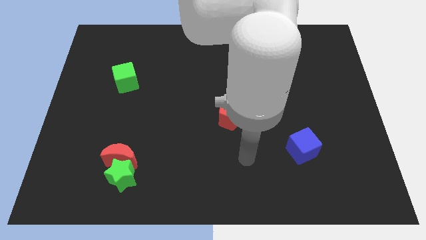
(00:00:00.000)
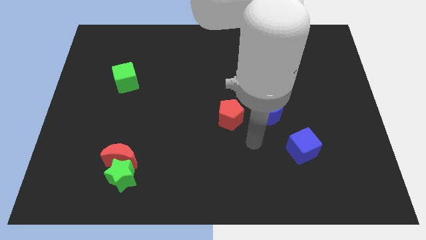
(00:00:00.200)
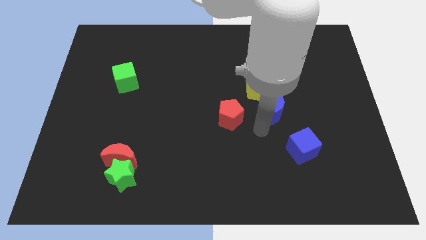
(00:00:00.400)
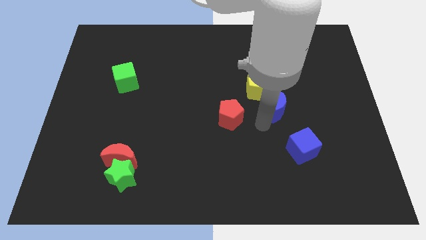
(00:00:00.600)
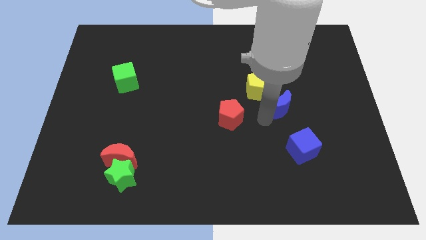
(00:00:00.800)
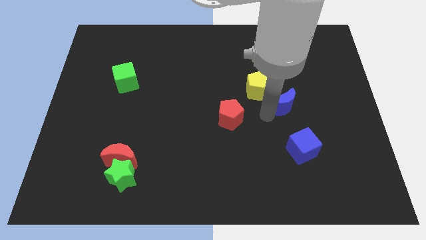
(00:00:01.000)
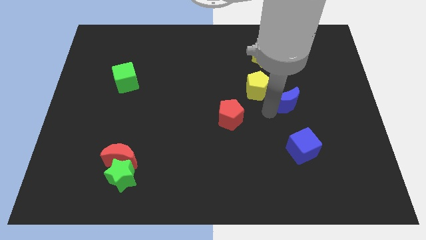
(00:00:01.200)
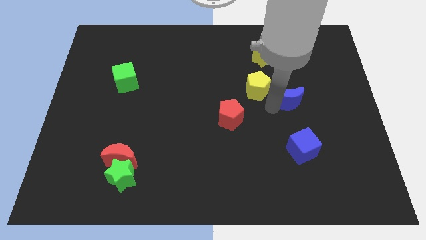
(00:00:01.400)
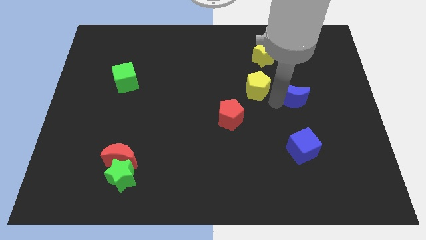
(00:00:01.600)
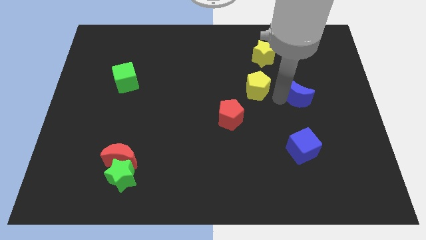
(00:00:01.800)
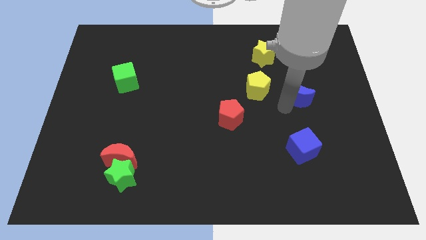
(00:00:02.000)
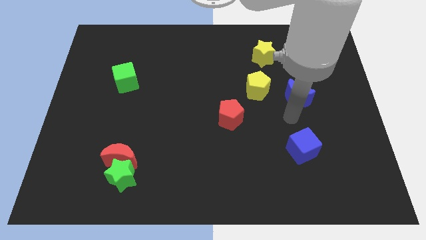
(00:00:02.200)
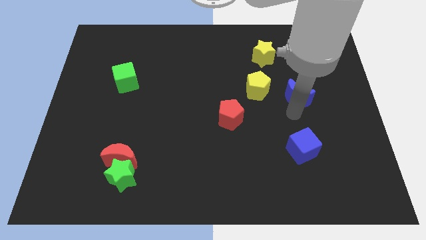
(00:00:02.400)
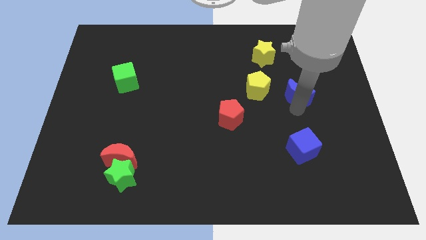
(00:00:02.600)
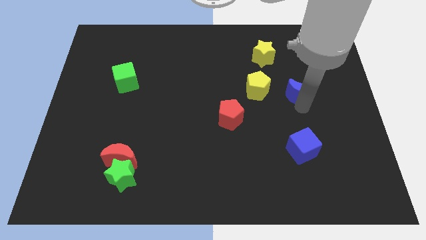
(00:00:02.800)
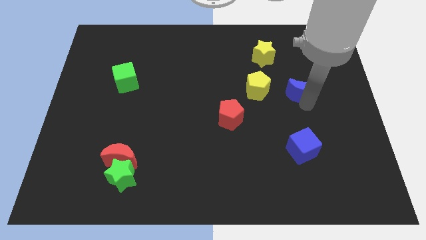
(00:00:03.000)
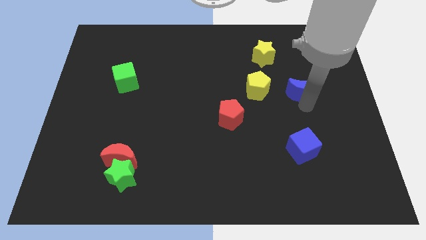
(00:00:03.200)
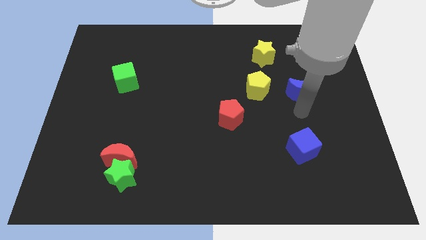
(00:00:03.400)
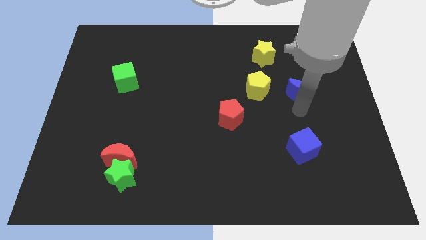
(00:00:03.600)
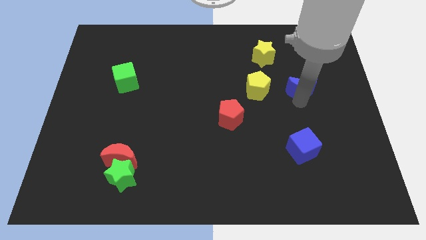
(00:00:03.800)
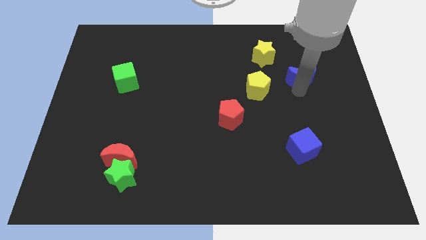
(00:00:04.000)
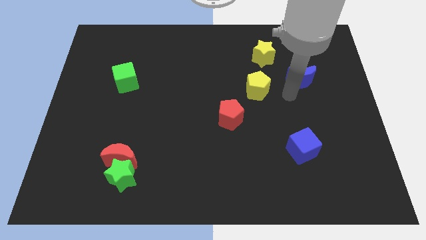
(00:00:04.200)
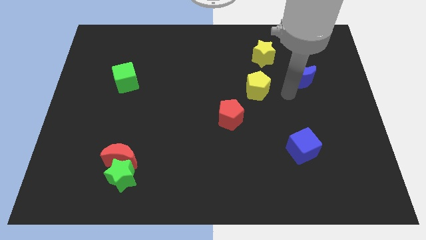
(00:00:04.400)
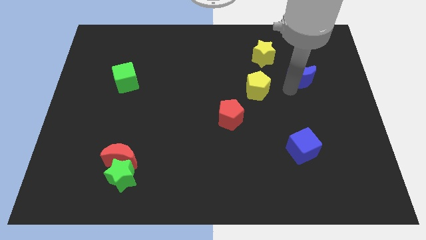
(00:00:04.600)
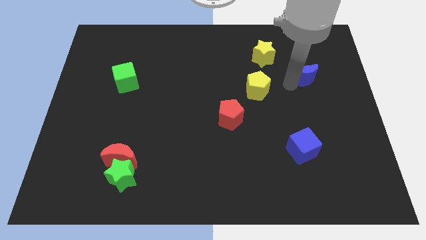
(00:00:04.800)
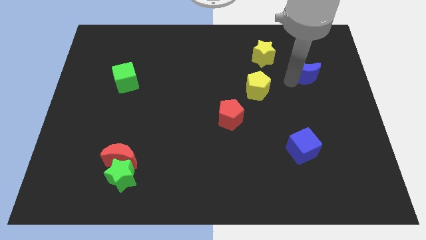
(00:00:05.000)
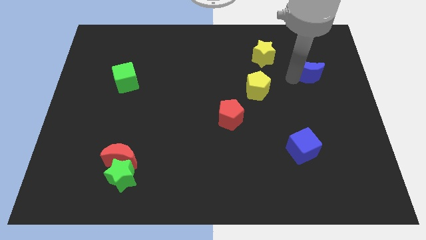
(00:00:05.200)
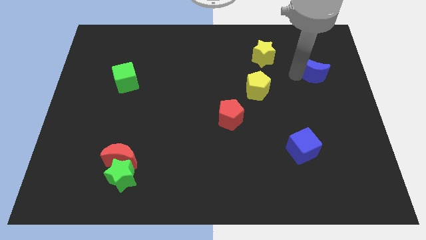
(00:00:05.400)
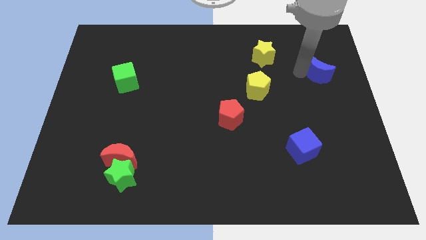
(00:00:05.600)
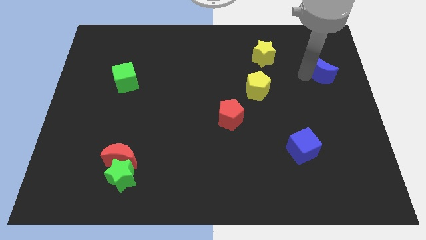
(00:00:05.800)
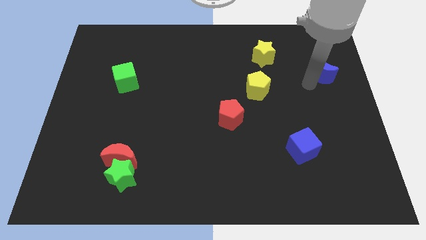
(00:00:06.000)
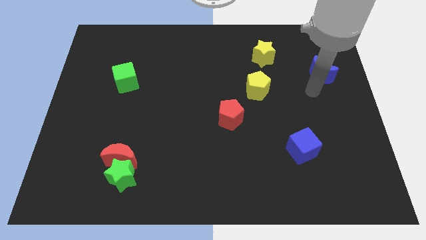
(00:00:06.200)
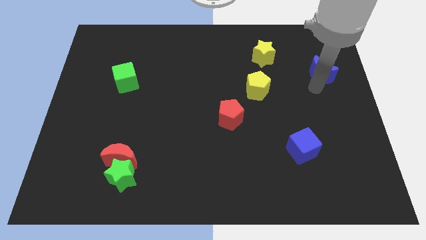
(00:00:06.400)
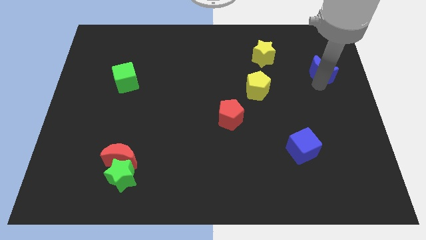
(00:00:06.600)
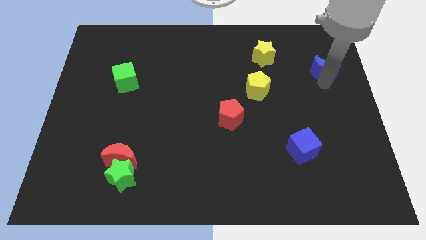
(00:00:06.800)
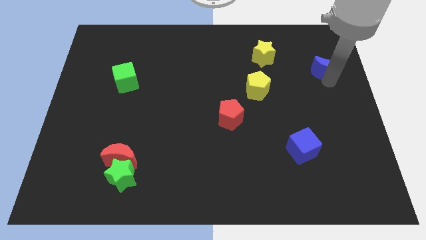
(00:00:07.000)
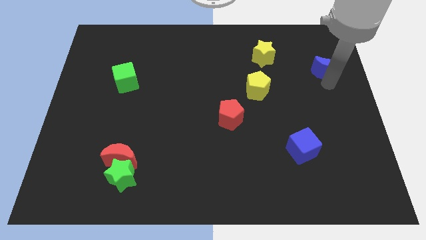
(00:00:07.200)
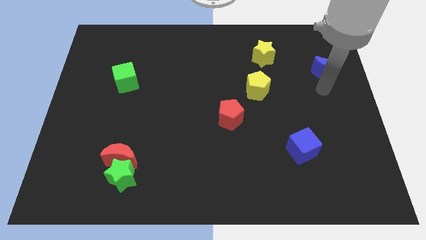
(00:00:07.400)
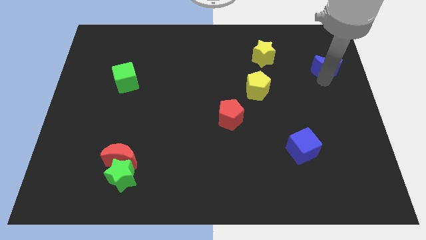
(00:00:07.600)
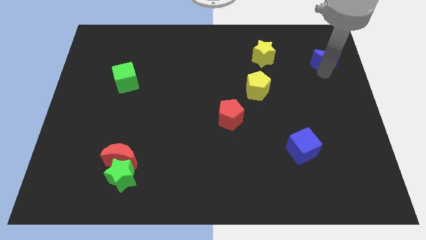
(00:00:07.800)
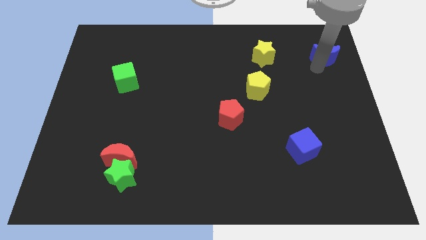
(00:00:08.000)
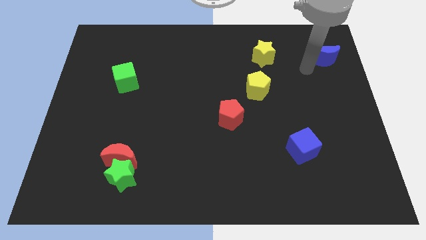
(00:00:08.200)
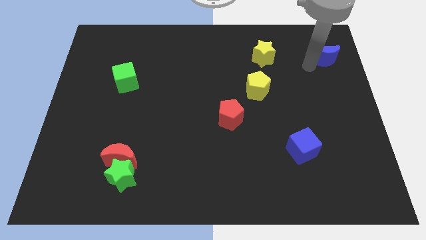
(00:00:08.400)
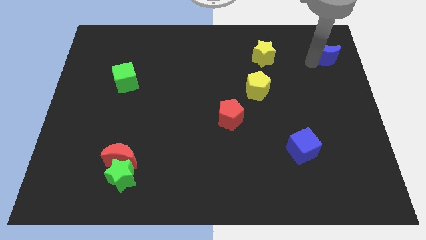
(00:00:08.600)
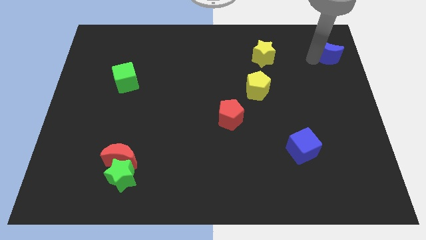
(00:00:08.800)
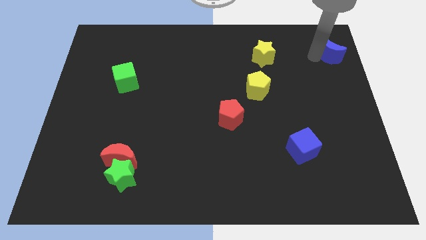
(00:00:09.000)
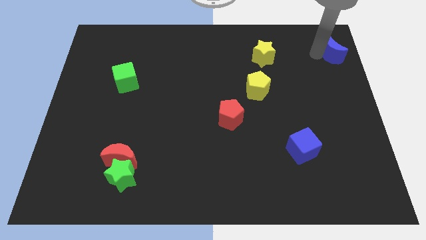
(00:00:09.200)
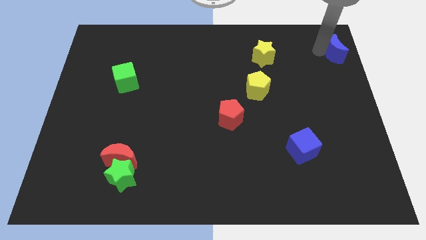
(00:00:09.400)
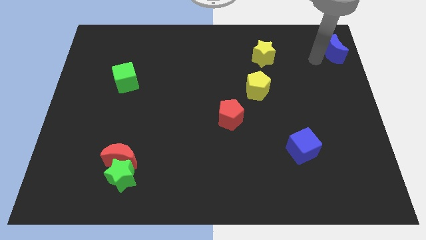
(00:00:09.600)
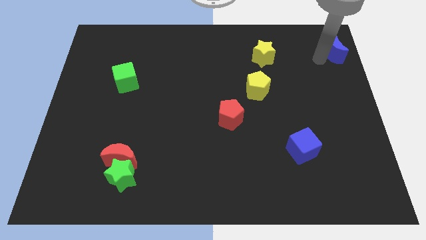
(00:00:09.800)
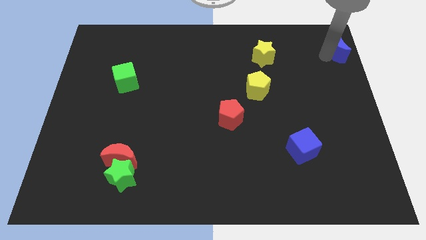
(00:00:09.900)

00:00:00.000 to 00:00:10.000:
push the blue moon to the top right corner

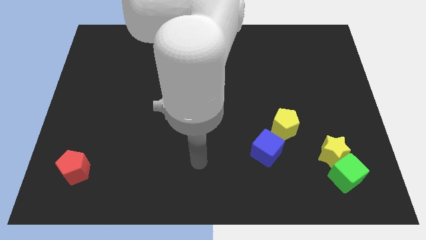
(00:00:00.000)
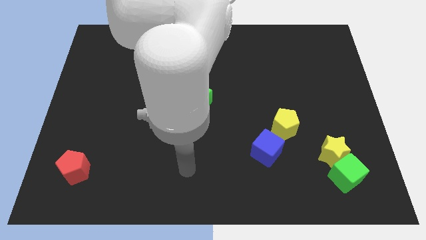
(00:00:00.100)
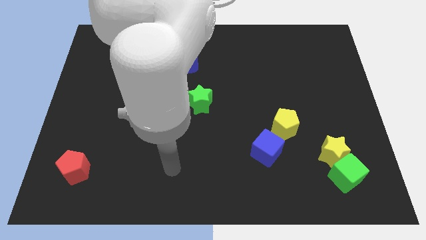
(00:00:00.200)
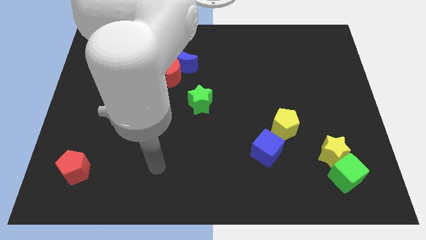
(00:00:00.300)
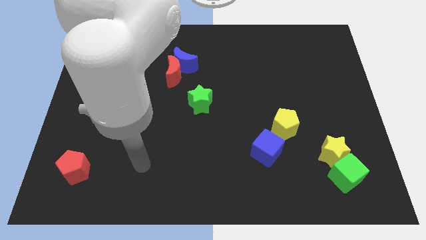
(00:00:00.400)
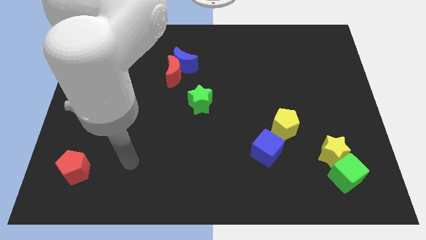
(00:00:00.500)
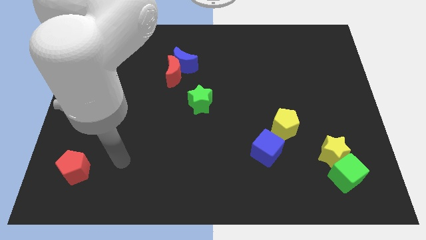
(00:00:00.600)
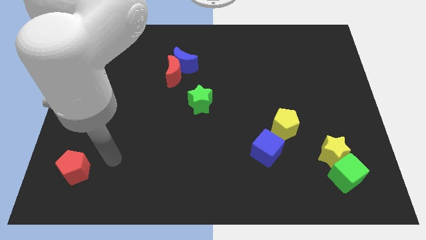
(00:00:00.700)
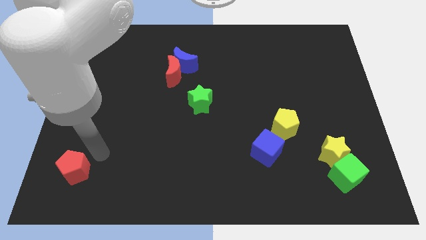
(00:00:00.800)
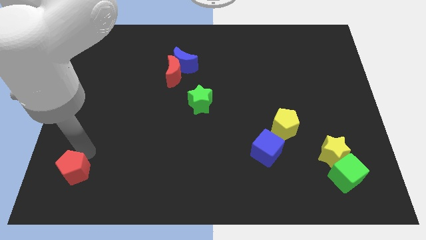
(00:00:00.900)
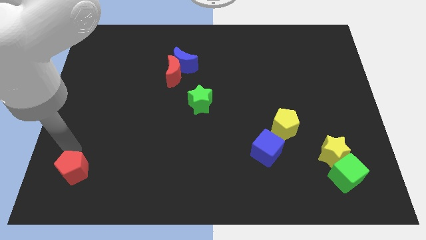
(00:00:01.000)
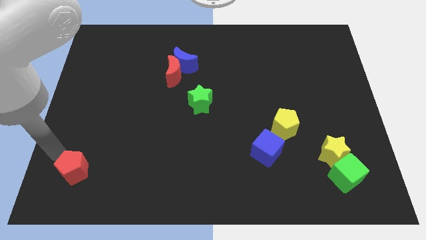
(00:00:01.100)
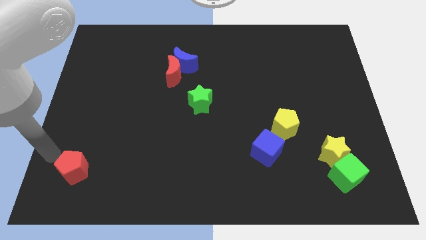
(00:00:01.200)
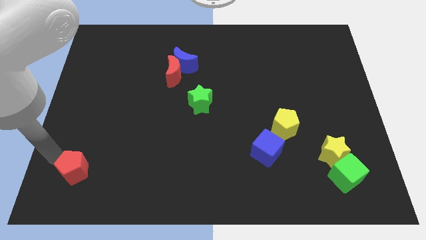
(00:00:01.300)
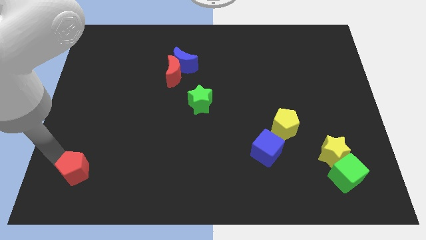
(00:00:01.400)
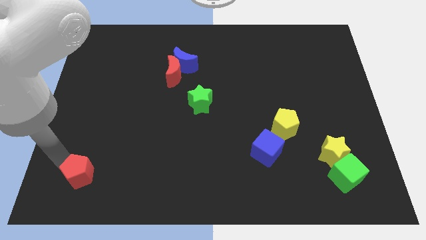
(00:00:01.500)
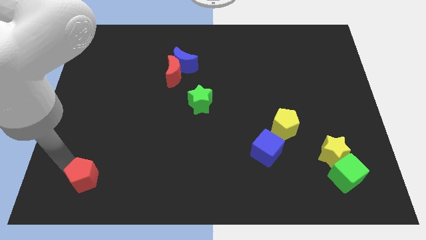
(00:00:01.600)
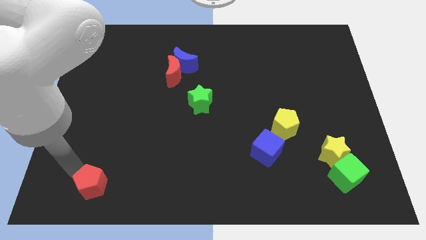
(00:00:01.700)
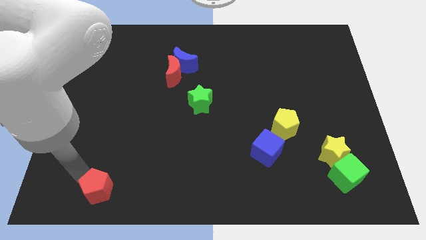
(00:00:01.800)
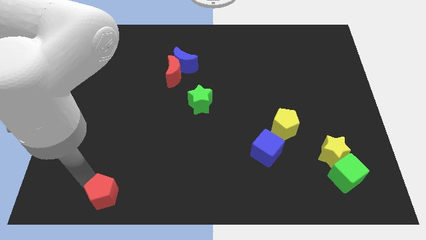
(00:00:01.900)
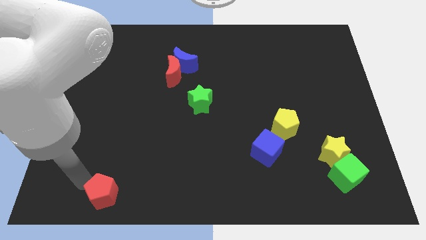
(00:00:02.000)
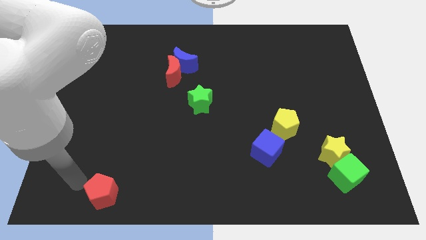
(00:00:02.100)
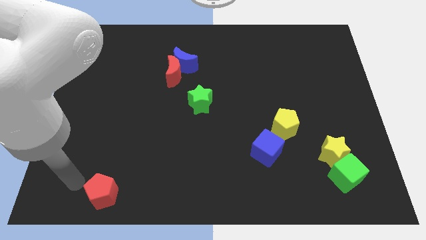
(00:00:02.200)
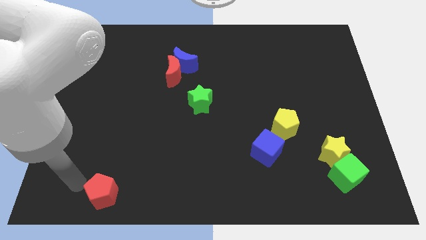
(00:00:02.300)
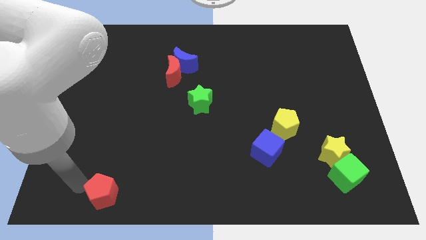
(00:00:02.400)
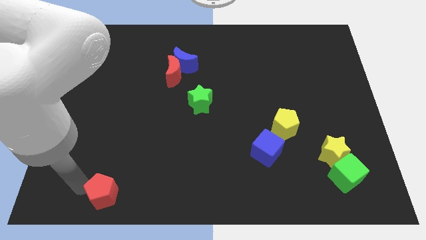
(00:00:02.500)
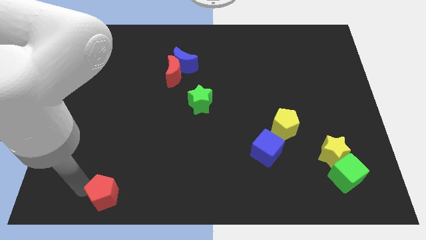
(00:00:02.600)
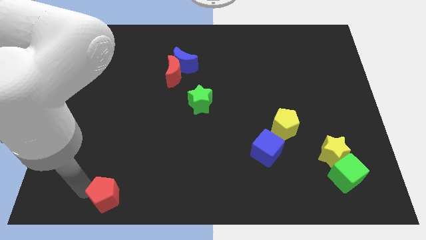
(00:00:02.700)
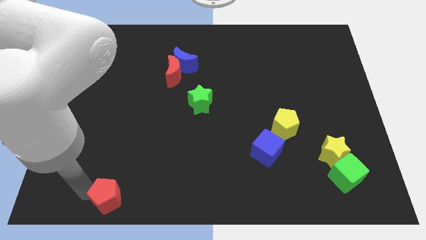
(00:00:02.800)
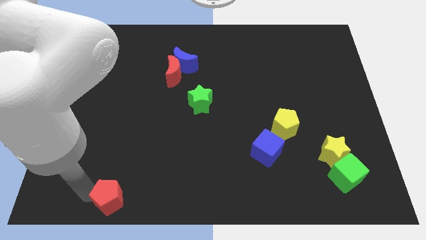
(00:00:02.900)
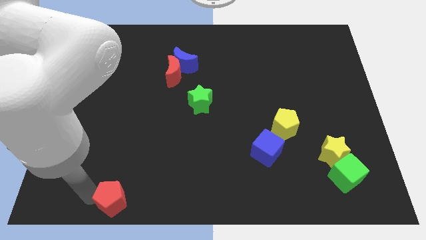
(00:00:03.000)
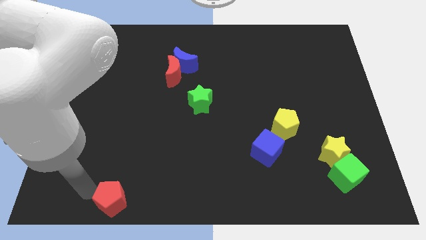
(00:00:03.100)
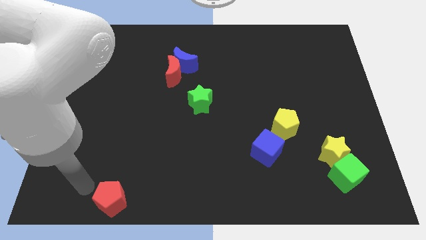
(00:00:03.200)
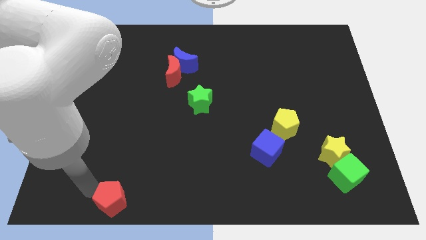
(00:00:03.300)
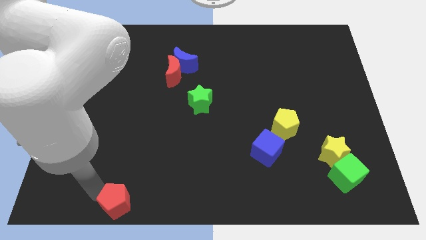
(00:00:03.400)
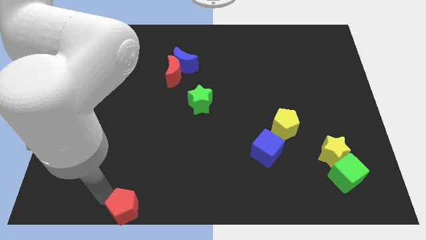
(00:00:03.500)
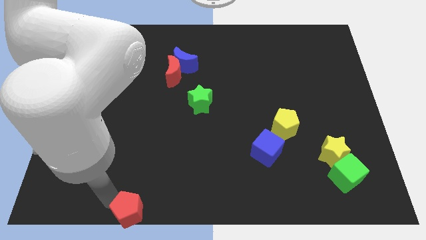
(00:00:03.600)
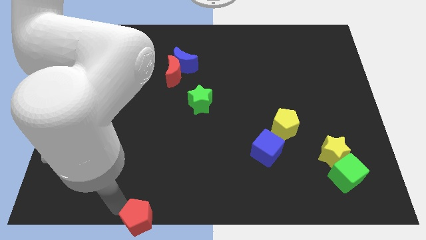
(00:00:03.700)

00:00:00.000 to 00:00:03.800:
slide the red pentagon to the bottom side
